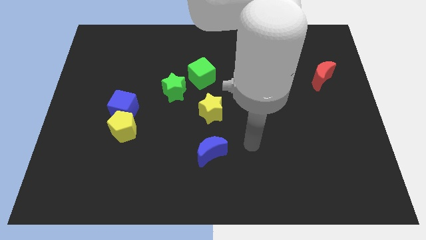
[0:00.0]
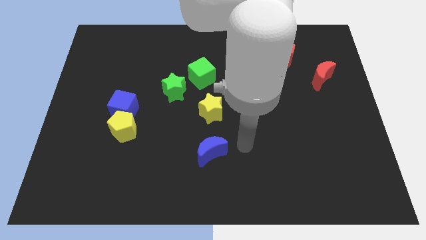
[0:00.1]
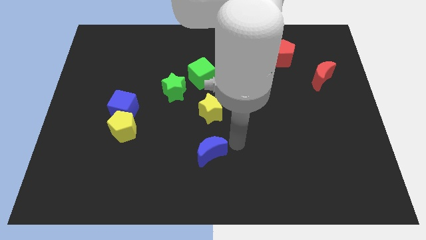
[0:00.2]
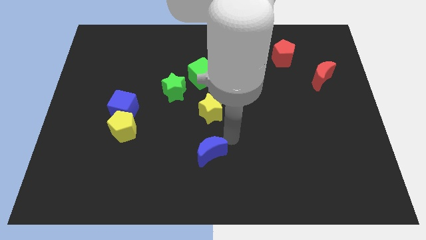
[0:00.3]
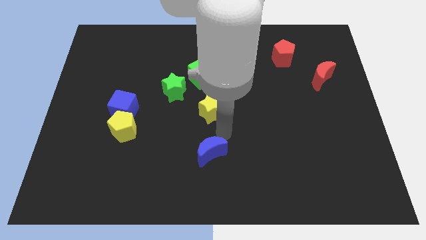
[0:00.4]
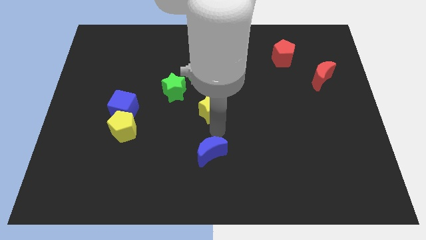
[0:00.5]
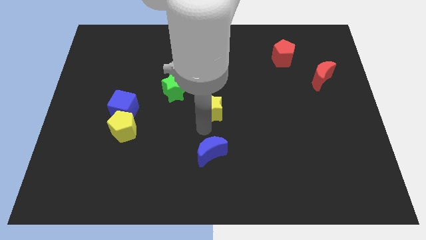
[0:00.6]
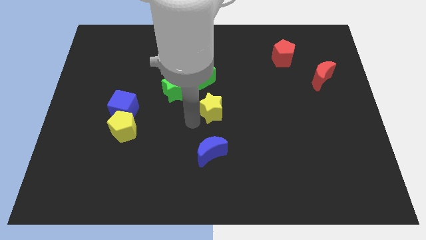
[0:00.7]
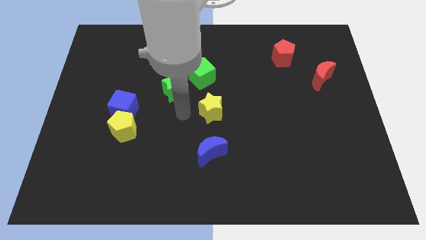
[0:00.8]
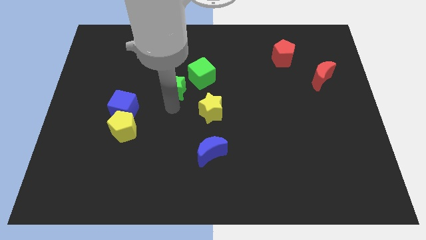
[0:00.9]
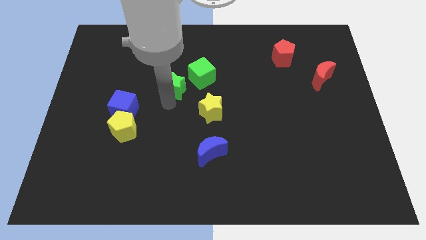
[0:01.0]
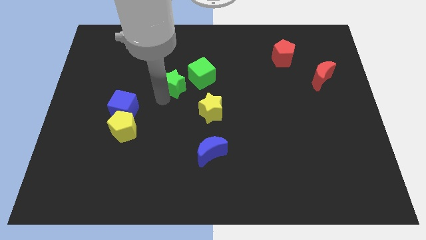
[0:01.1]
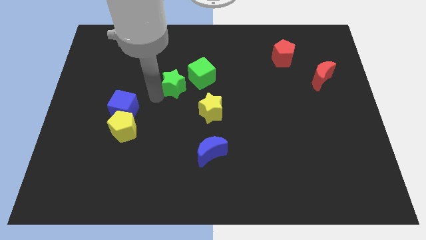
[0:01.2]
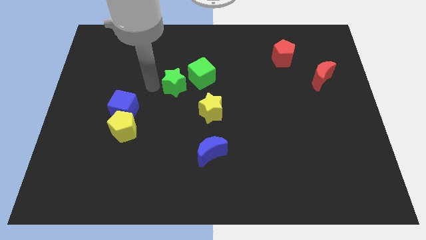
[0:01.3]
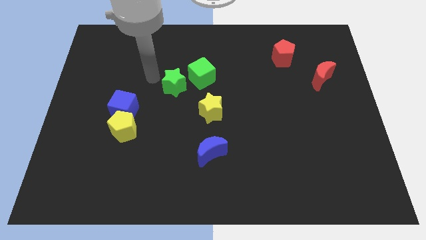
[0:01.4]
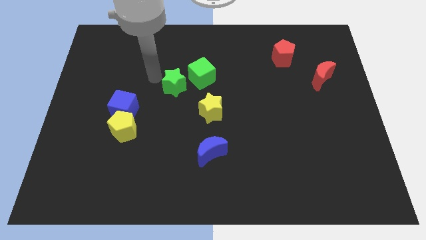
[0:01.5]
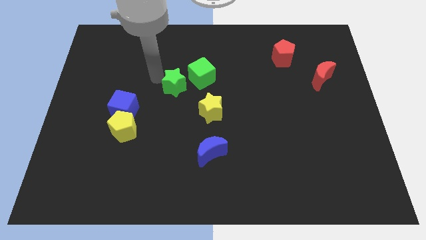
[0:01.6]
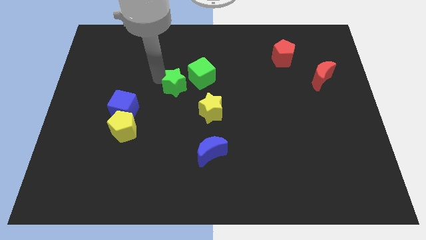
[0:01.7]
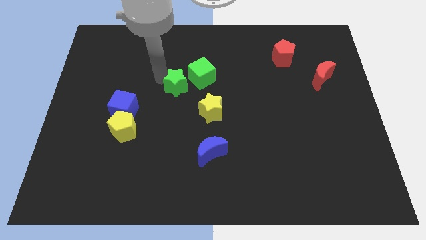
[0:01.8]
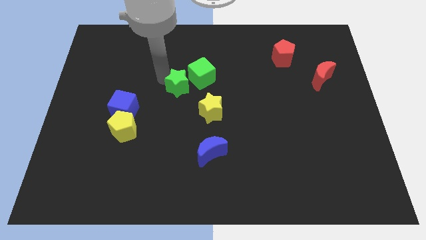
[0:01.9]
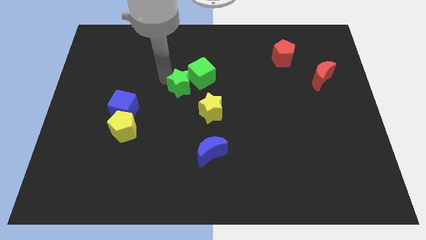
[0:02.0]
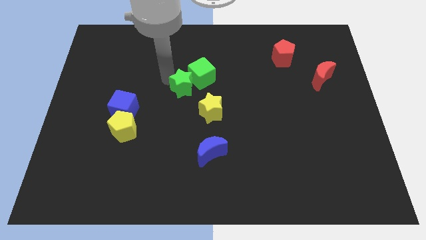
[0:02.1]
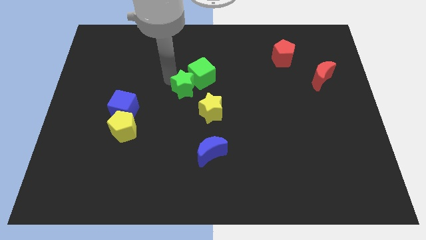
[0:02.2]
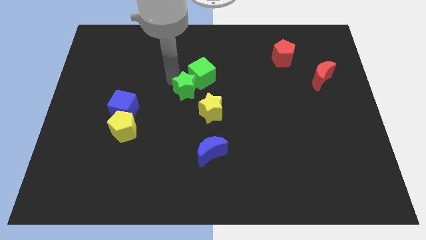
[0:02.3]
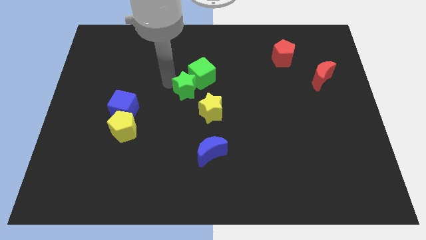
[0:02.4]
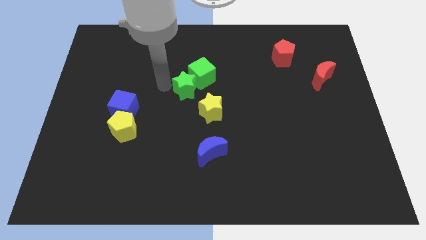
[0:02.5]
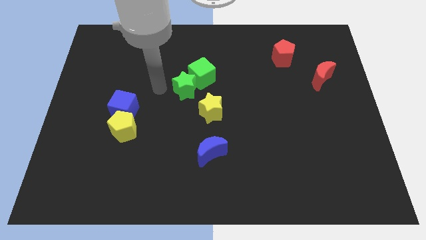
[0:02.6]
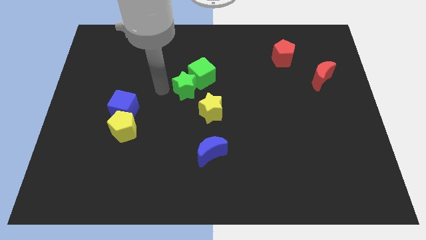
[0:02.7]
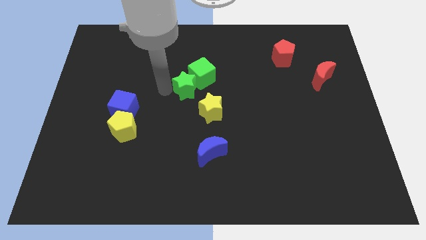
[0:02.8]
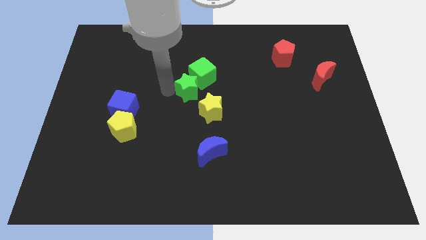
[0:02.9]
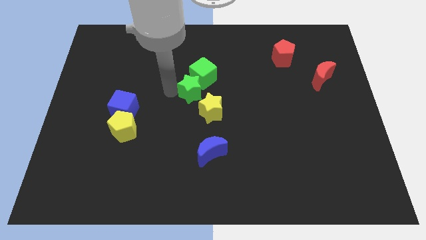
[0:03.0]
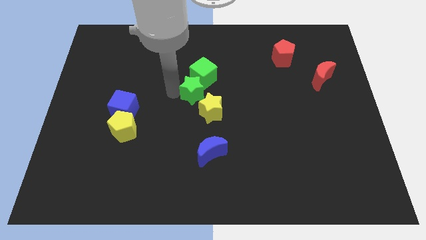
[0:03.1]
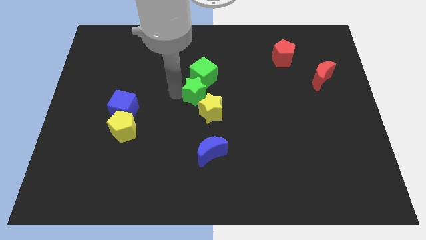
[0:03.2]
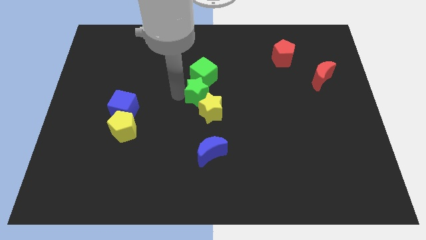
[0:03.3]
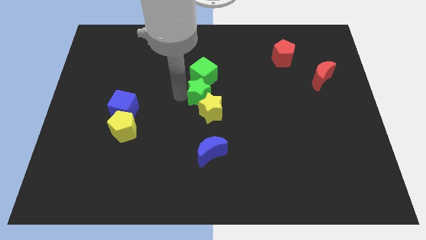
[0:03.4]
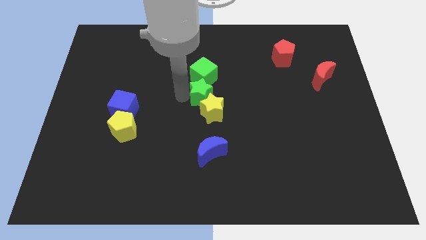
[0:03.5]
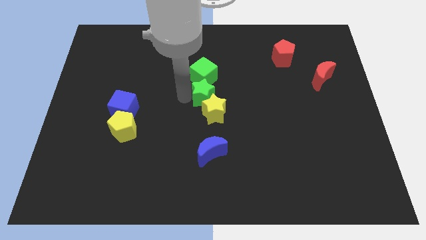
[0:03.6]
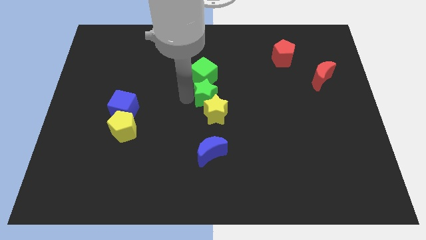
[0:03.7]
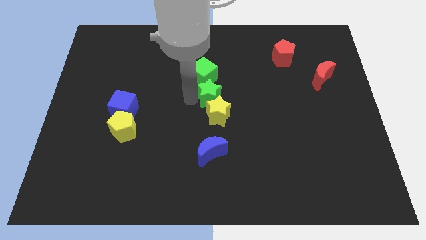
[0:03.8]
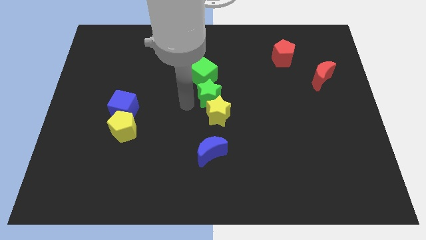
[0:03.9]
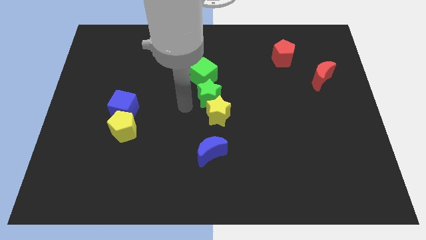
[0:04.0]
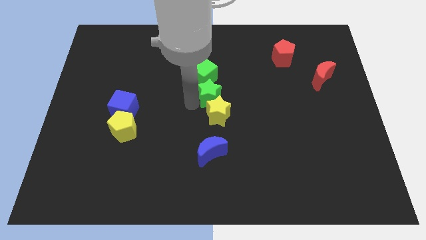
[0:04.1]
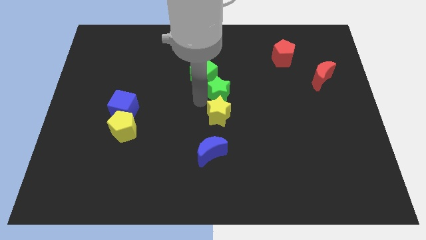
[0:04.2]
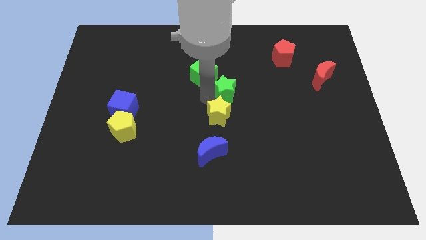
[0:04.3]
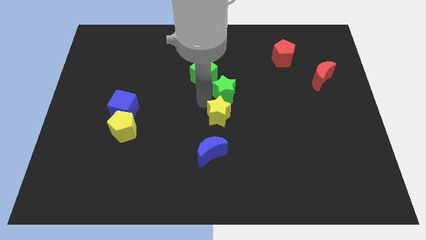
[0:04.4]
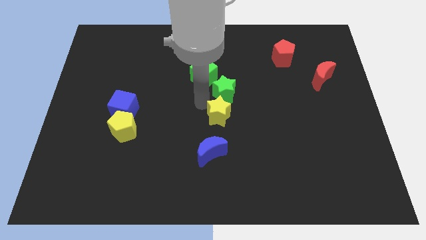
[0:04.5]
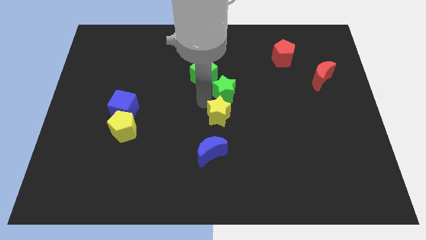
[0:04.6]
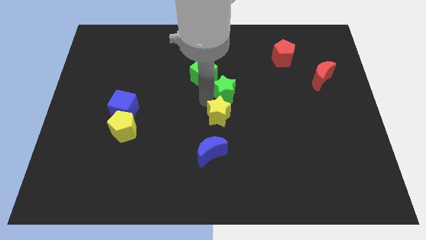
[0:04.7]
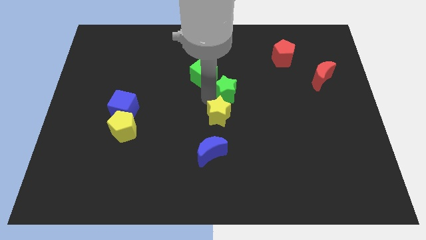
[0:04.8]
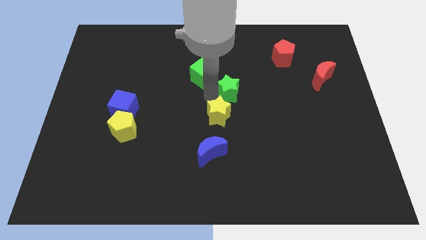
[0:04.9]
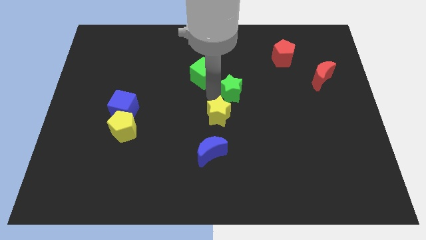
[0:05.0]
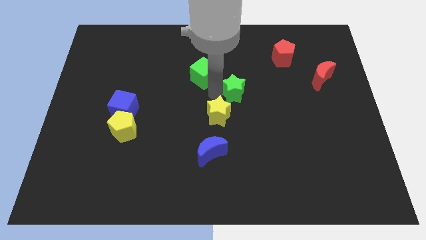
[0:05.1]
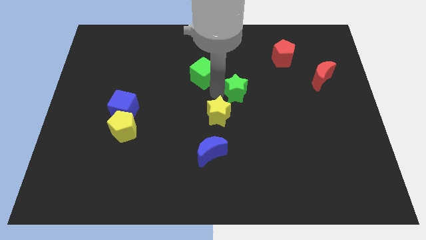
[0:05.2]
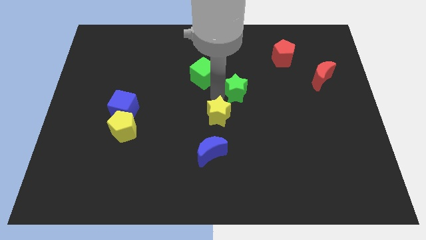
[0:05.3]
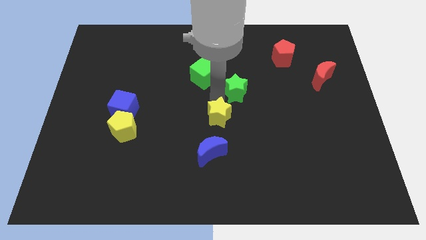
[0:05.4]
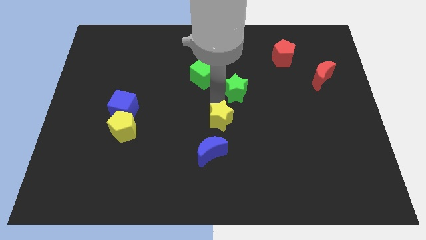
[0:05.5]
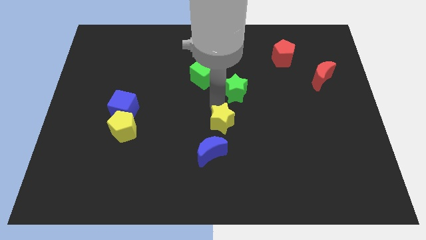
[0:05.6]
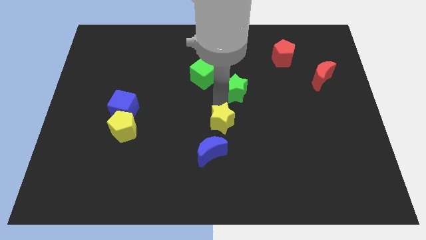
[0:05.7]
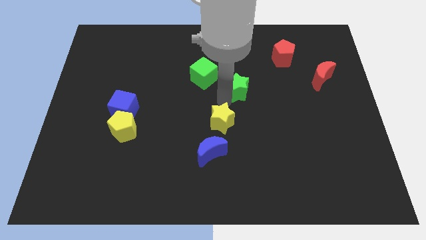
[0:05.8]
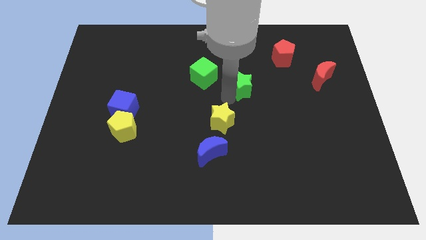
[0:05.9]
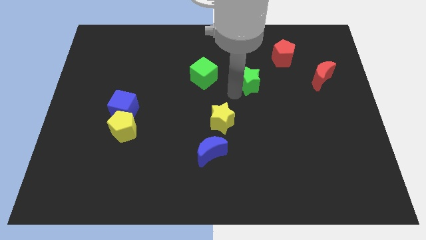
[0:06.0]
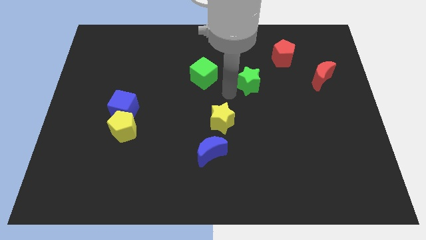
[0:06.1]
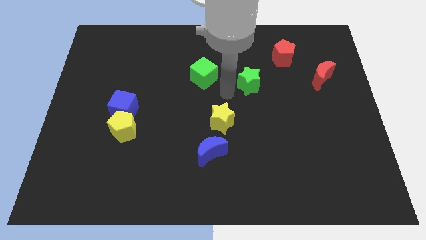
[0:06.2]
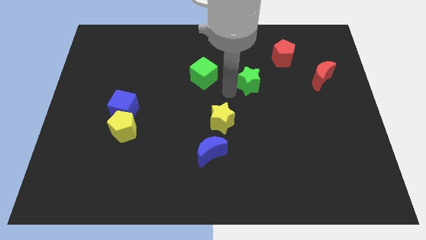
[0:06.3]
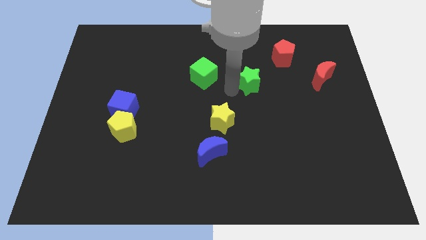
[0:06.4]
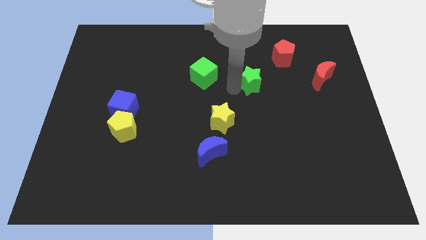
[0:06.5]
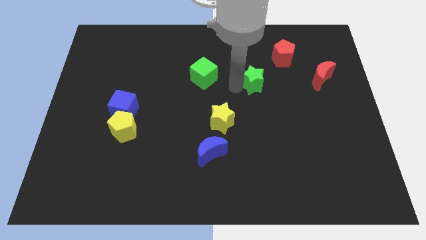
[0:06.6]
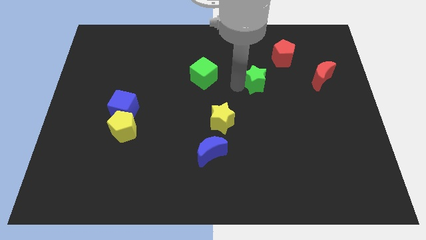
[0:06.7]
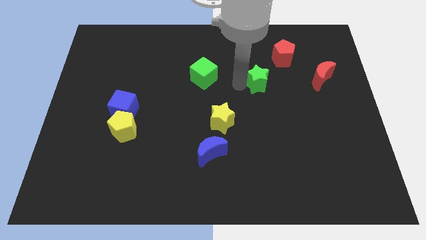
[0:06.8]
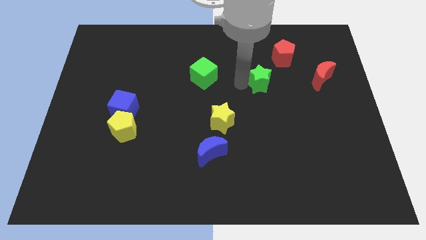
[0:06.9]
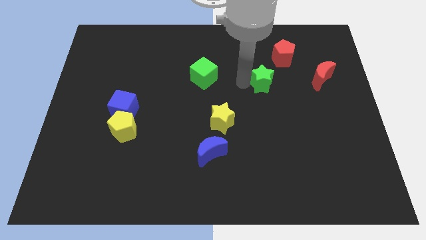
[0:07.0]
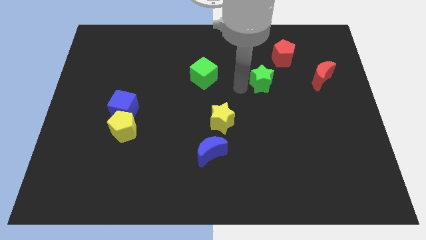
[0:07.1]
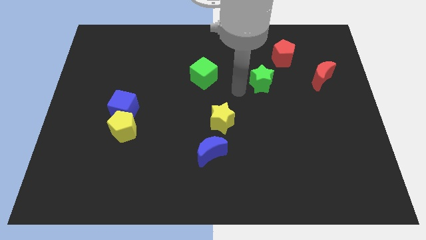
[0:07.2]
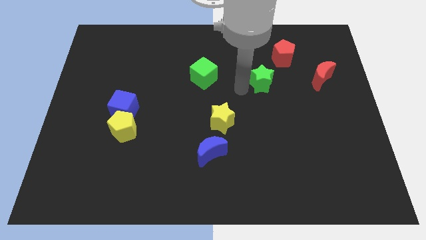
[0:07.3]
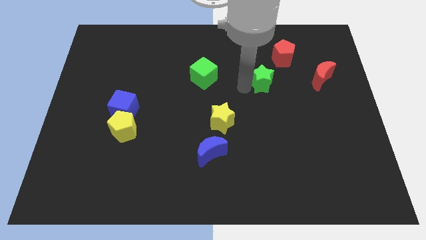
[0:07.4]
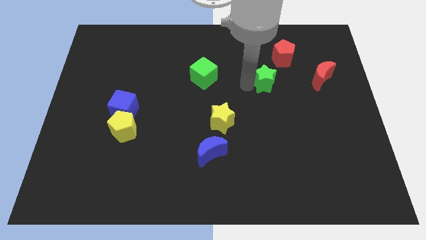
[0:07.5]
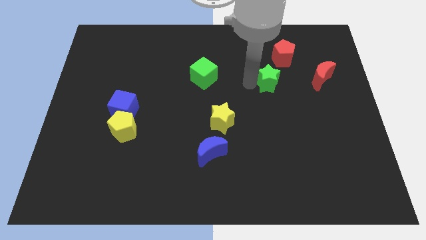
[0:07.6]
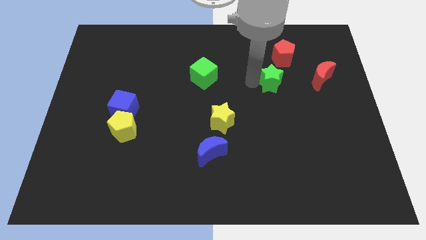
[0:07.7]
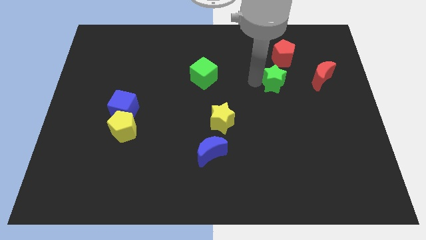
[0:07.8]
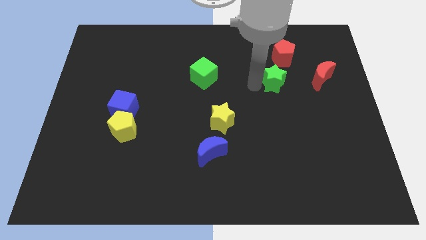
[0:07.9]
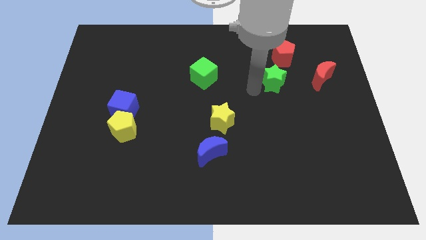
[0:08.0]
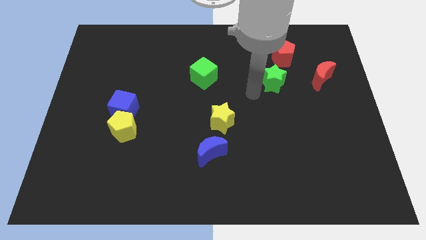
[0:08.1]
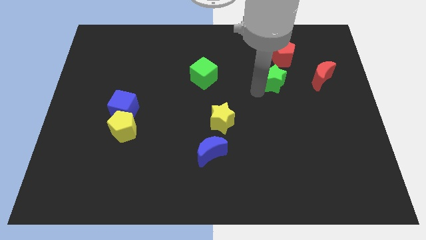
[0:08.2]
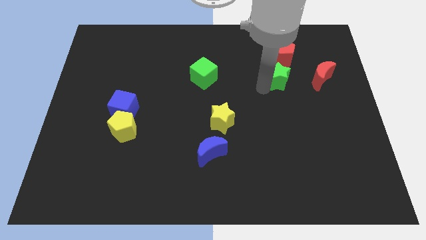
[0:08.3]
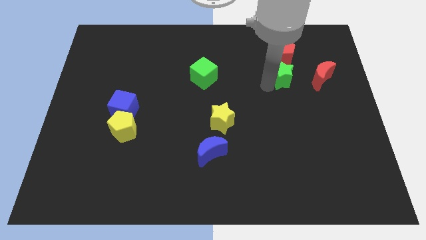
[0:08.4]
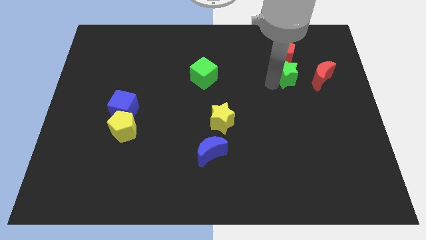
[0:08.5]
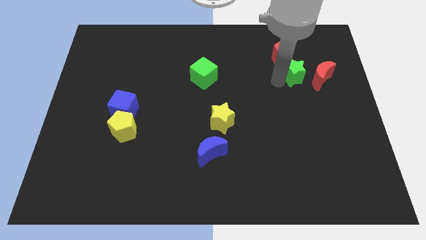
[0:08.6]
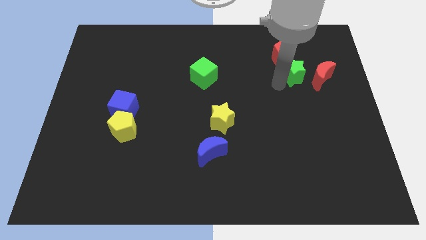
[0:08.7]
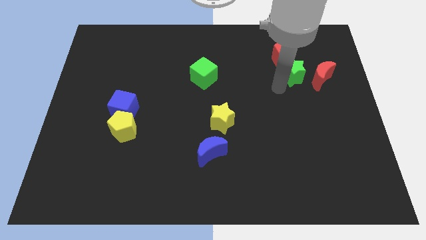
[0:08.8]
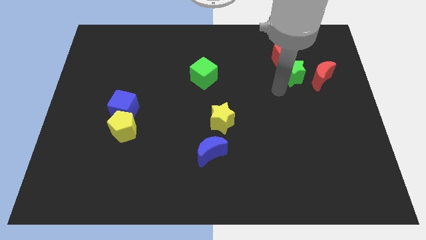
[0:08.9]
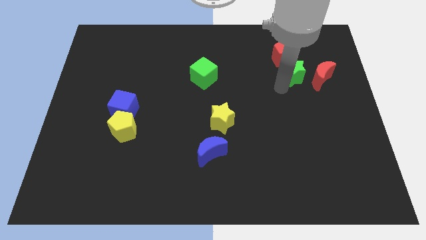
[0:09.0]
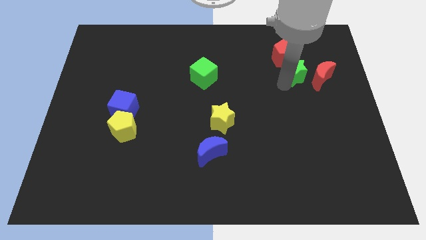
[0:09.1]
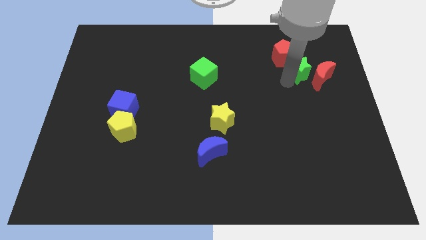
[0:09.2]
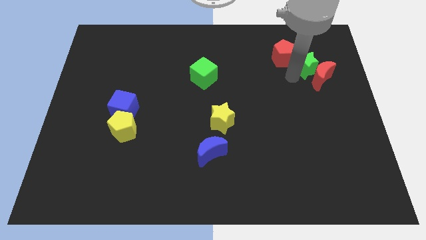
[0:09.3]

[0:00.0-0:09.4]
slide the green star to the right of the red pentagon
